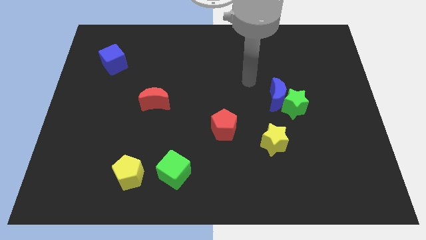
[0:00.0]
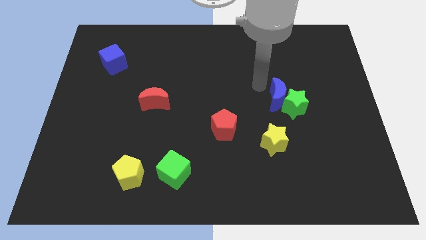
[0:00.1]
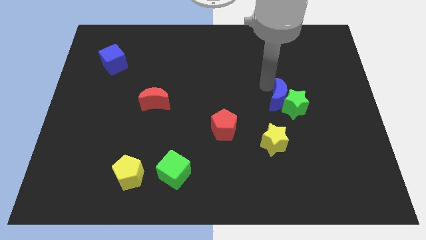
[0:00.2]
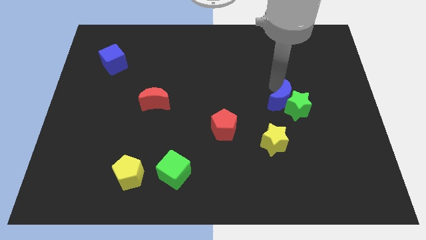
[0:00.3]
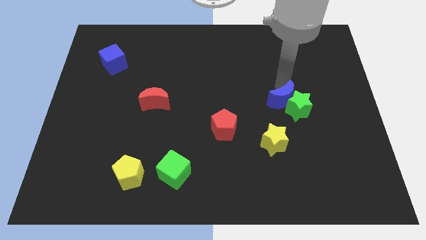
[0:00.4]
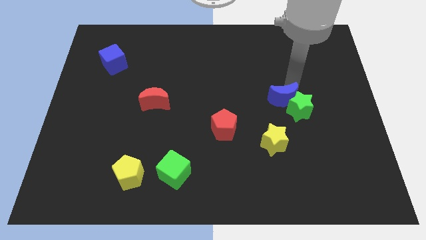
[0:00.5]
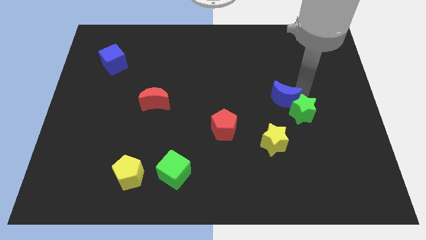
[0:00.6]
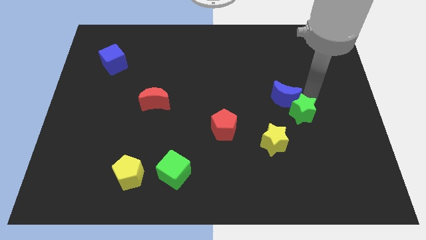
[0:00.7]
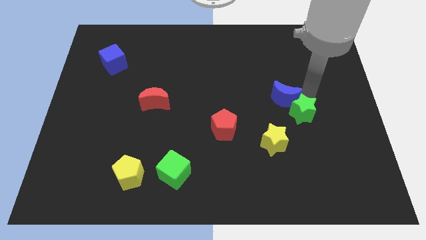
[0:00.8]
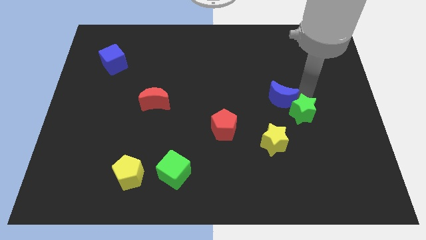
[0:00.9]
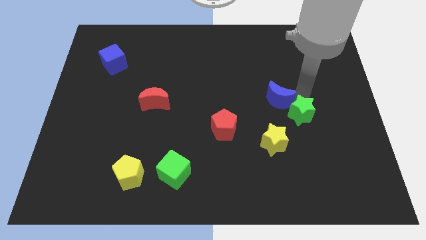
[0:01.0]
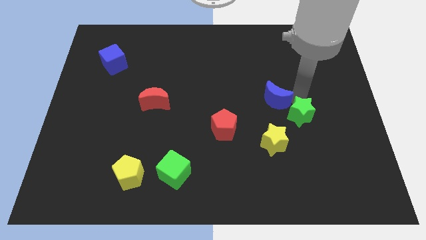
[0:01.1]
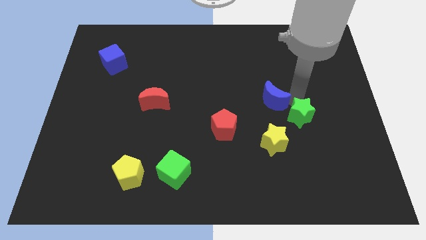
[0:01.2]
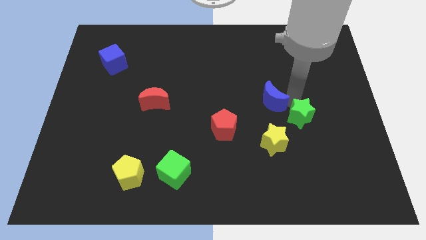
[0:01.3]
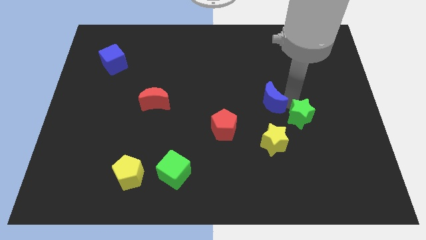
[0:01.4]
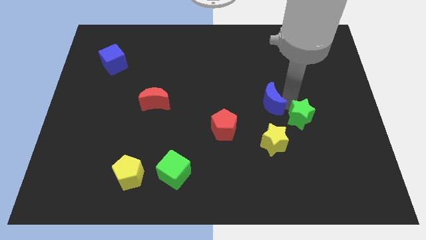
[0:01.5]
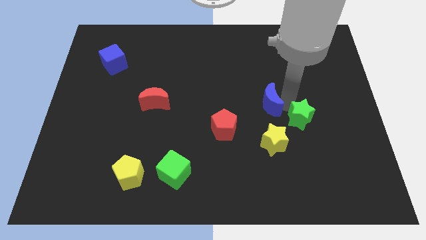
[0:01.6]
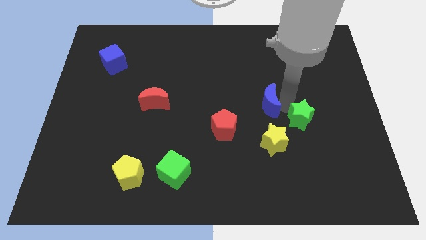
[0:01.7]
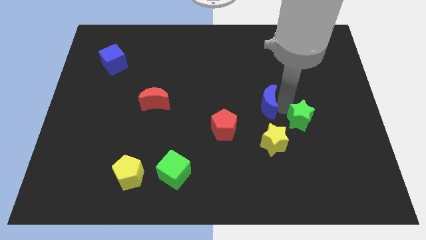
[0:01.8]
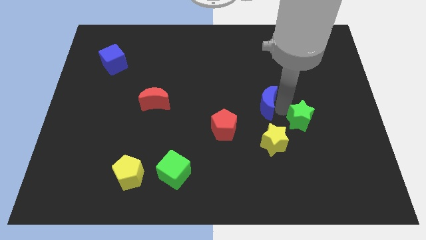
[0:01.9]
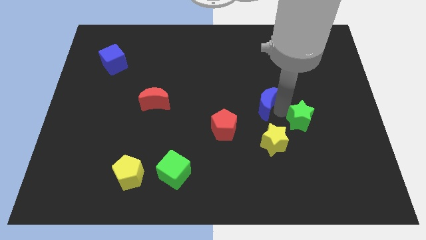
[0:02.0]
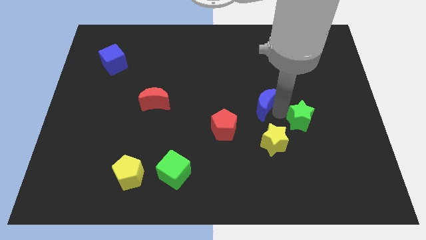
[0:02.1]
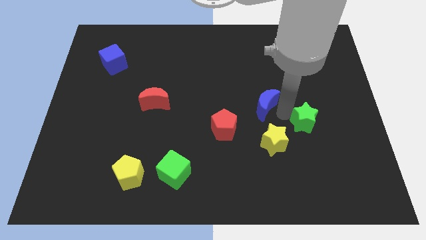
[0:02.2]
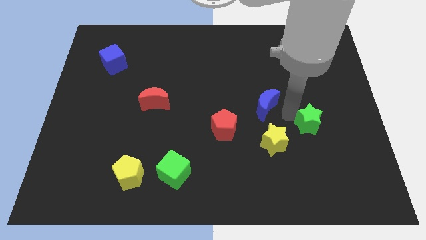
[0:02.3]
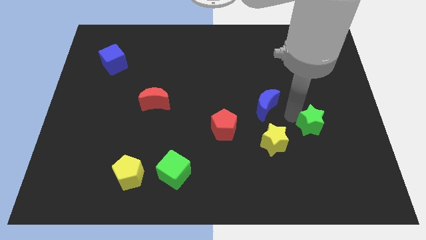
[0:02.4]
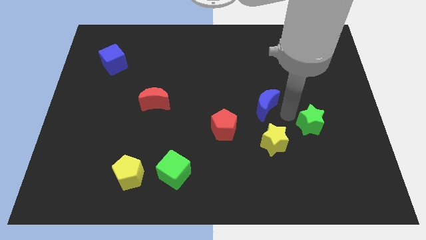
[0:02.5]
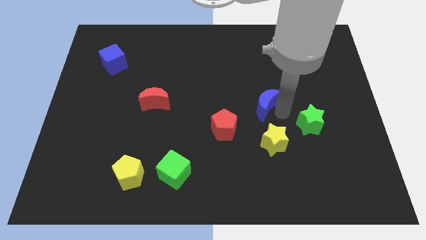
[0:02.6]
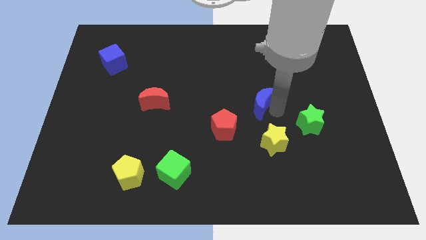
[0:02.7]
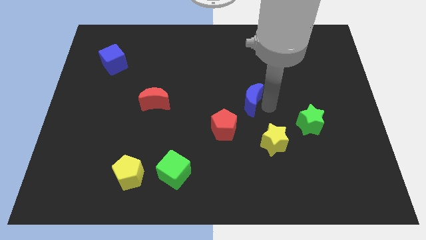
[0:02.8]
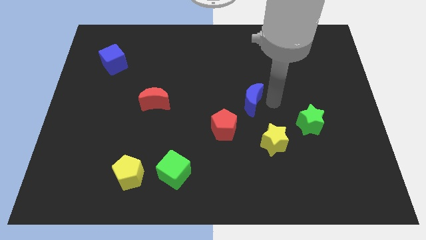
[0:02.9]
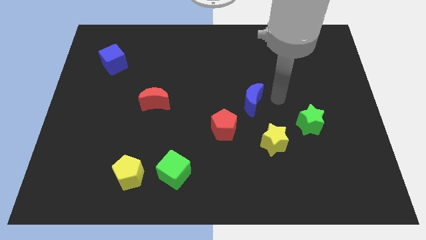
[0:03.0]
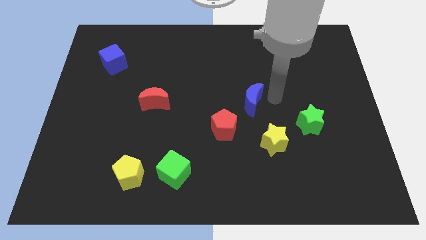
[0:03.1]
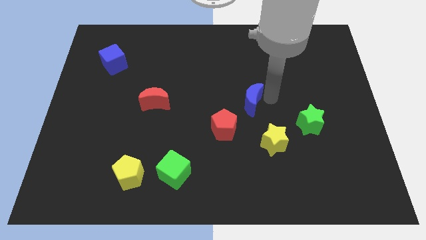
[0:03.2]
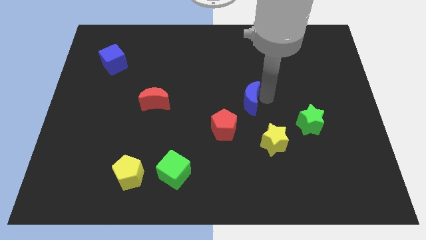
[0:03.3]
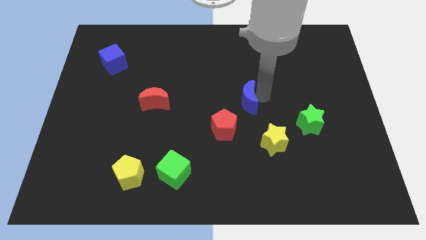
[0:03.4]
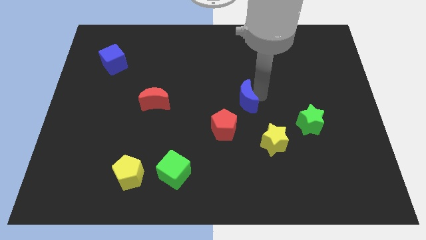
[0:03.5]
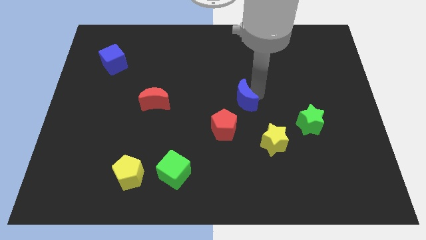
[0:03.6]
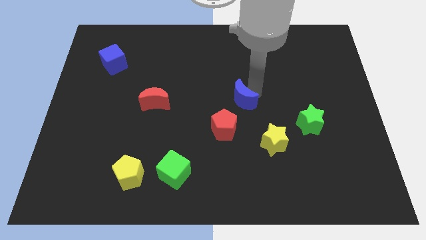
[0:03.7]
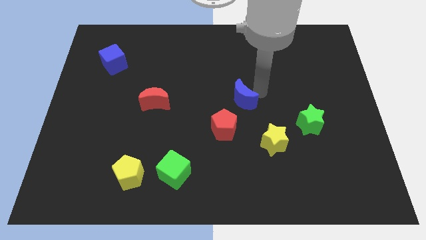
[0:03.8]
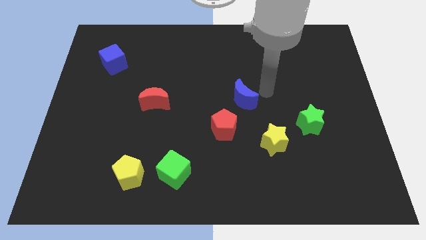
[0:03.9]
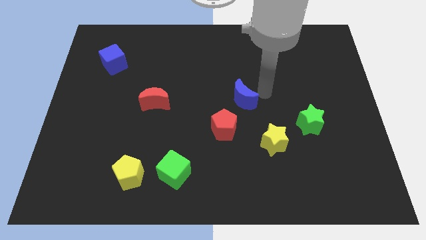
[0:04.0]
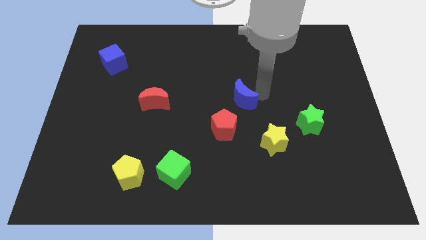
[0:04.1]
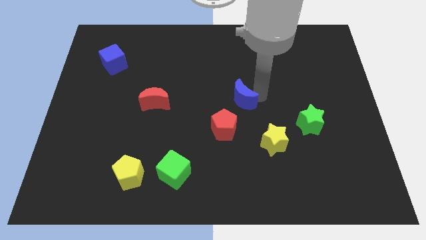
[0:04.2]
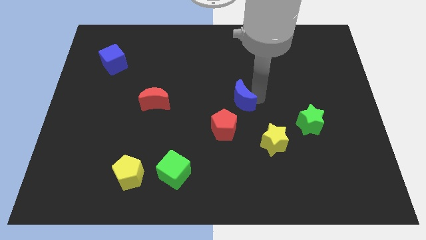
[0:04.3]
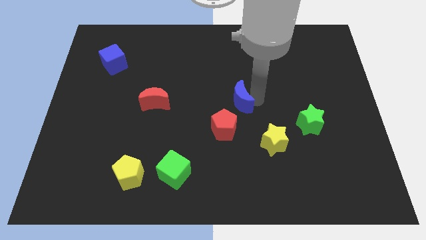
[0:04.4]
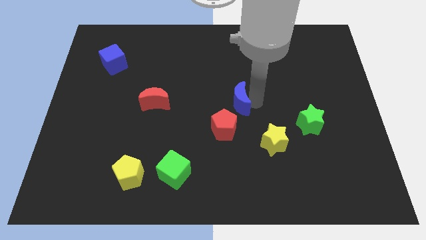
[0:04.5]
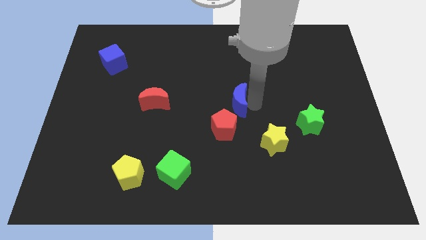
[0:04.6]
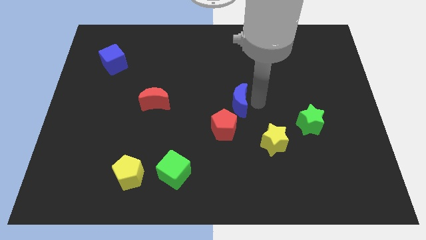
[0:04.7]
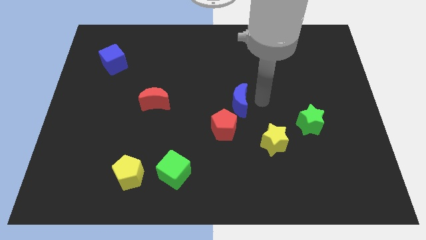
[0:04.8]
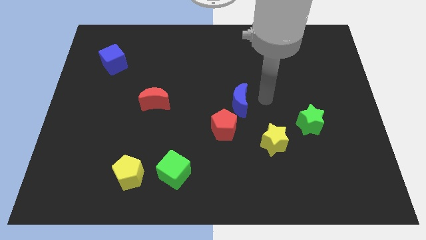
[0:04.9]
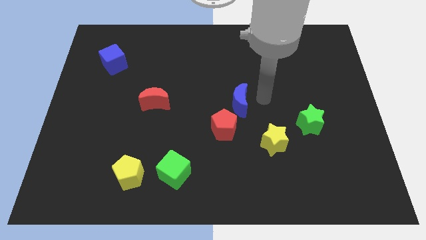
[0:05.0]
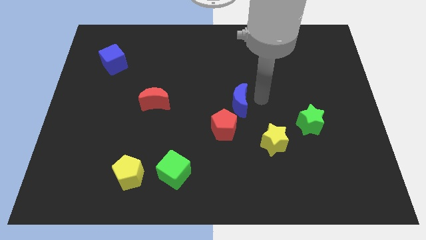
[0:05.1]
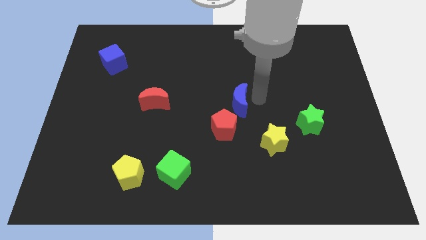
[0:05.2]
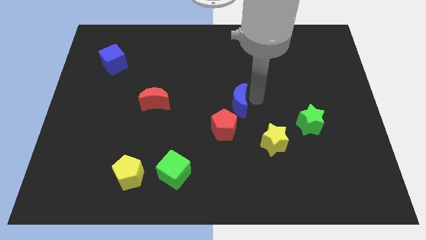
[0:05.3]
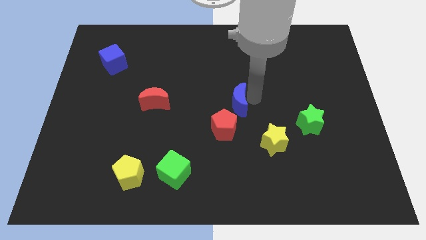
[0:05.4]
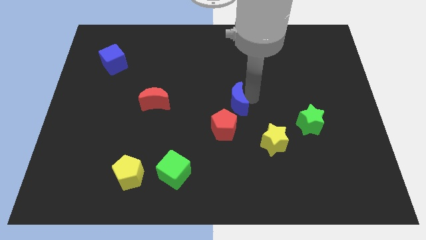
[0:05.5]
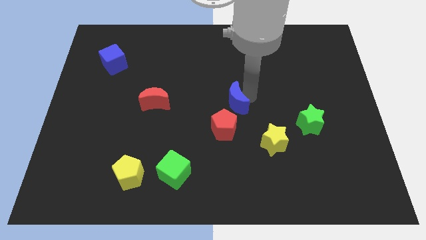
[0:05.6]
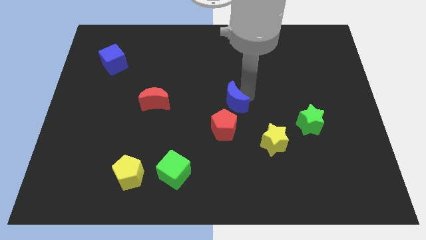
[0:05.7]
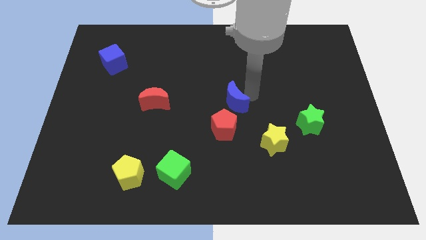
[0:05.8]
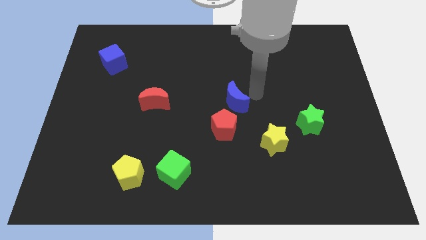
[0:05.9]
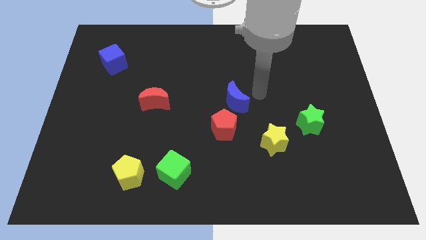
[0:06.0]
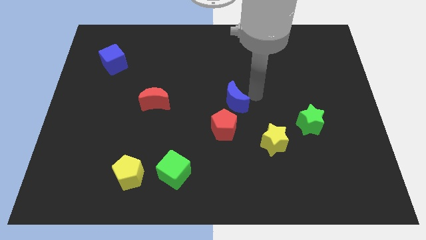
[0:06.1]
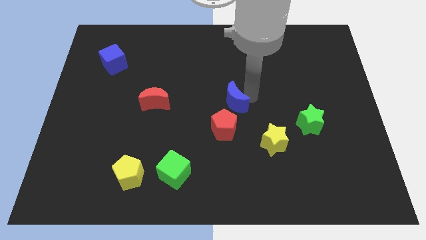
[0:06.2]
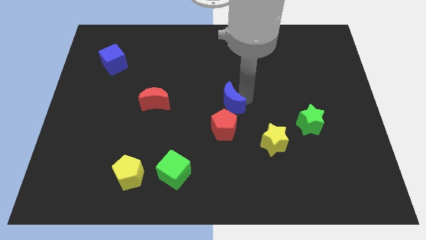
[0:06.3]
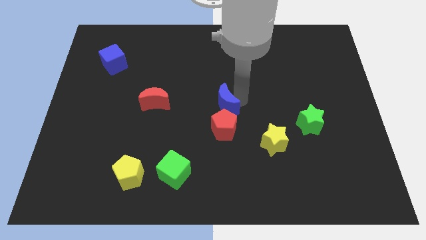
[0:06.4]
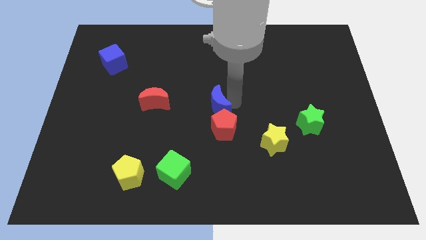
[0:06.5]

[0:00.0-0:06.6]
move the blue moon to the top left of the red pentagon
